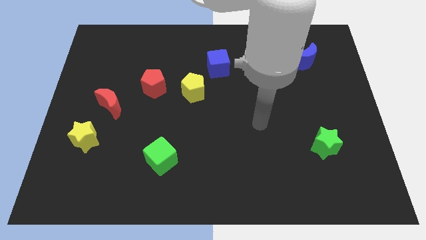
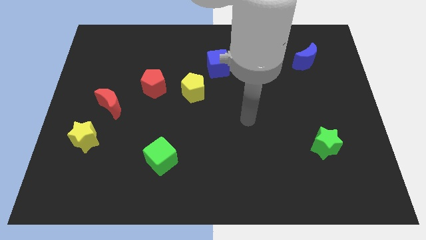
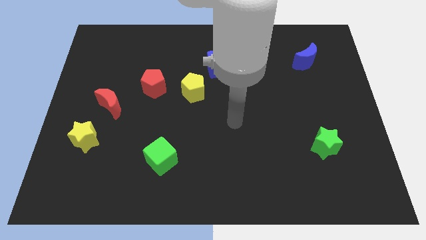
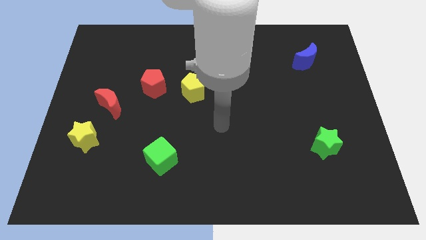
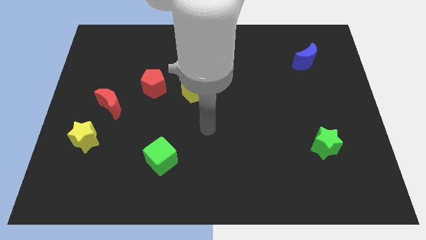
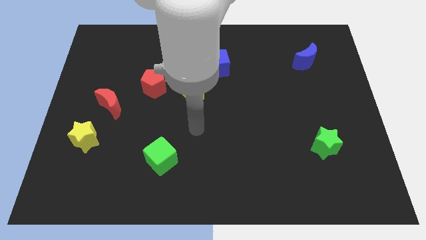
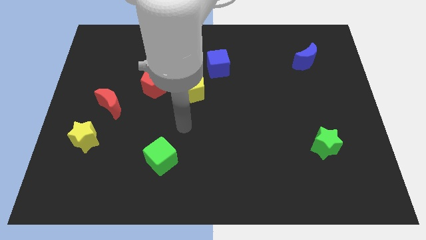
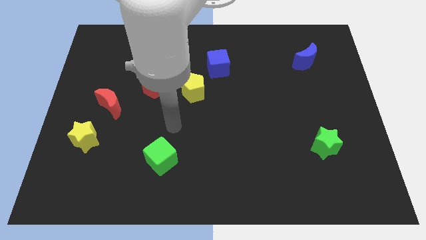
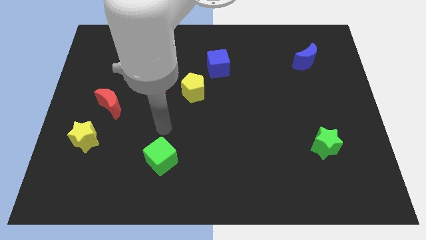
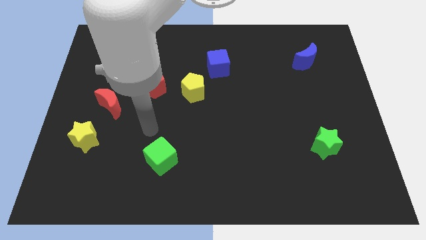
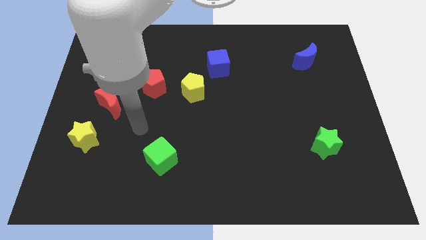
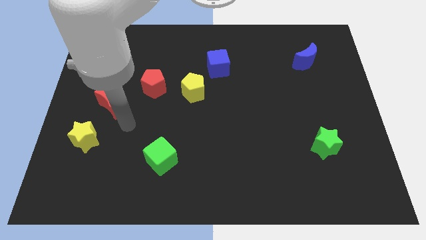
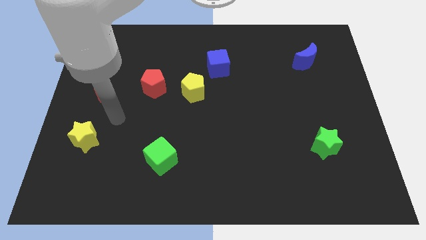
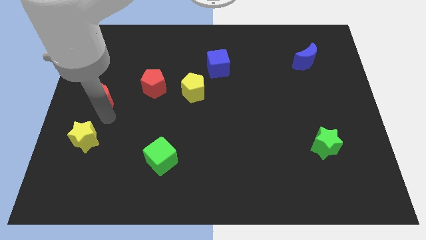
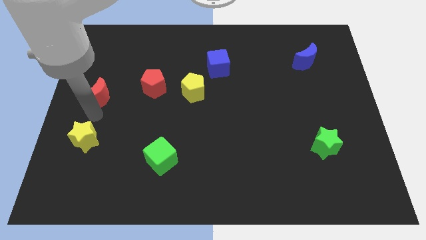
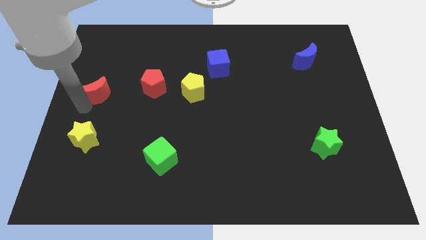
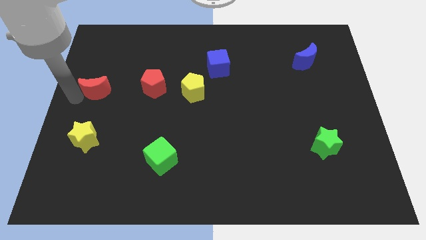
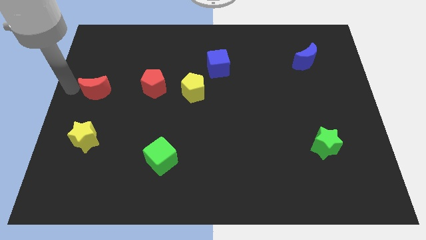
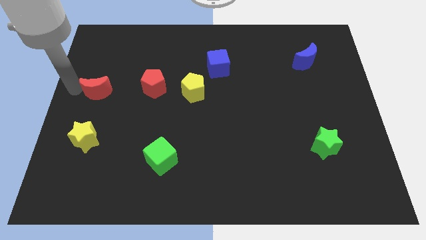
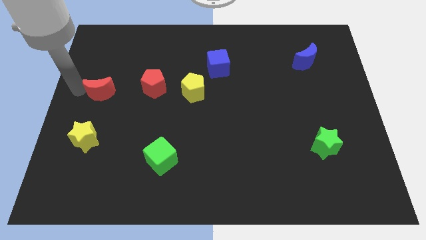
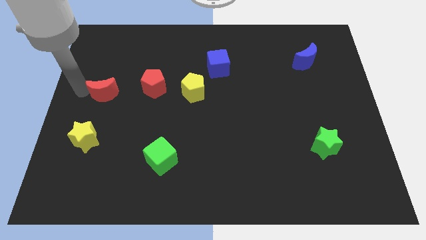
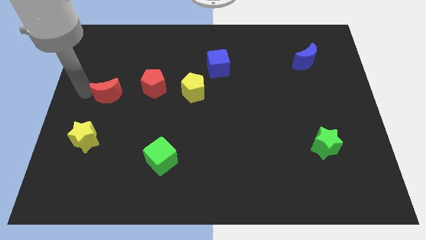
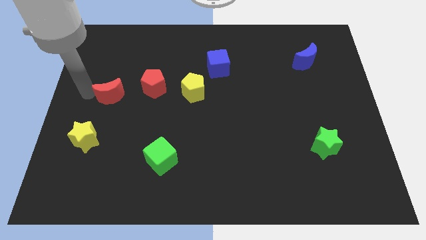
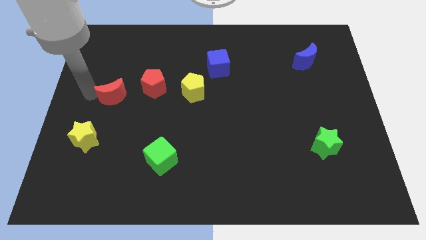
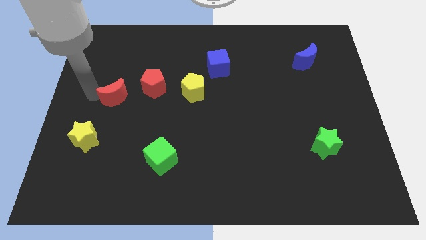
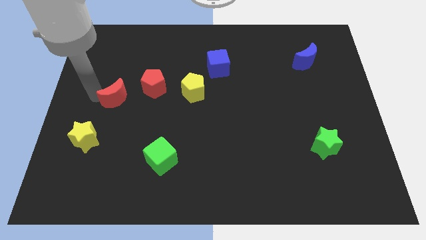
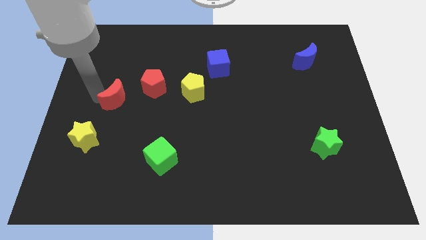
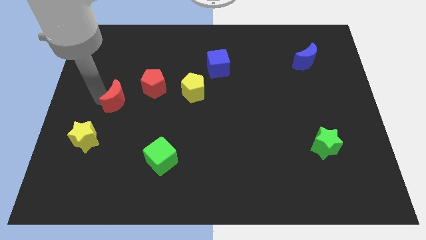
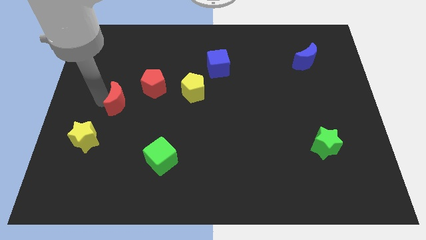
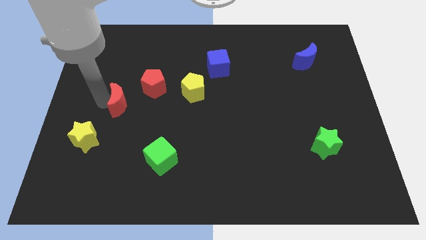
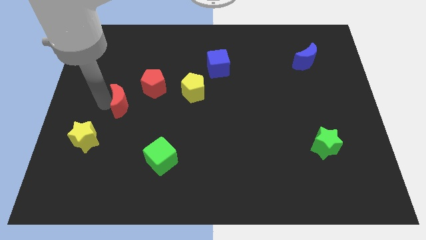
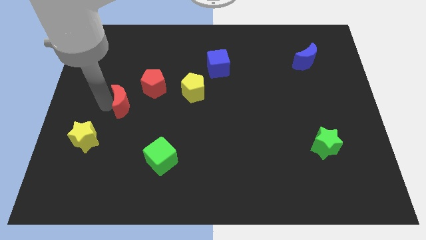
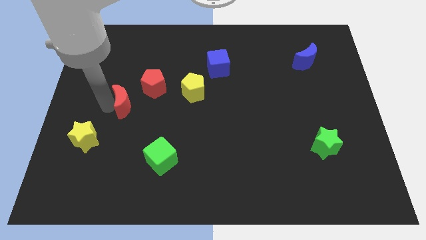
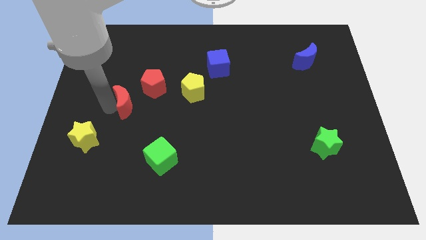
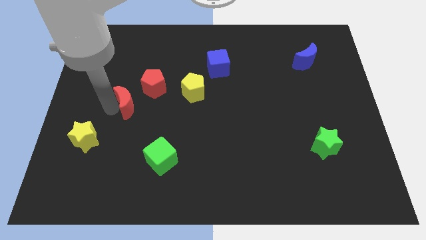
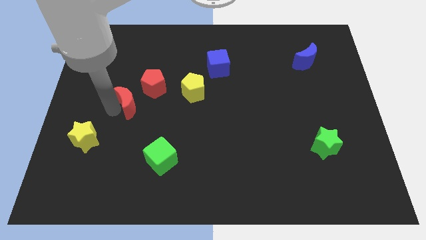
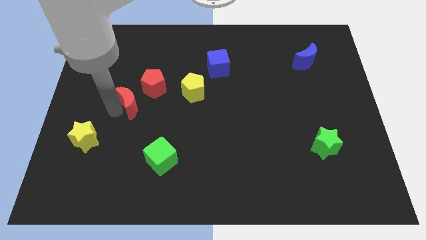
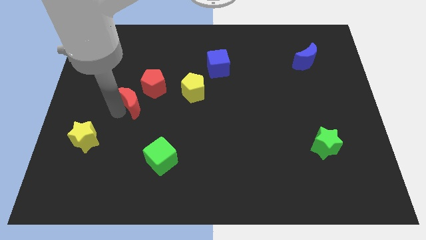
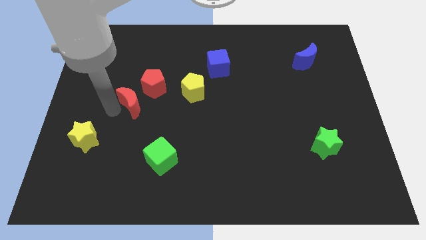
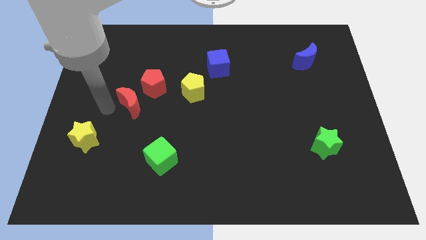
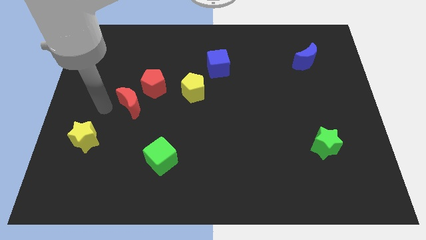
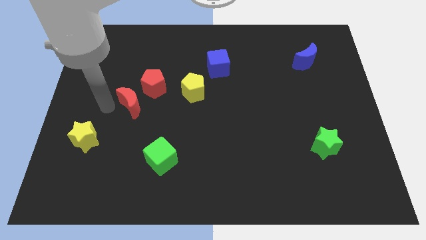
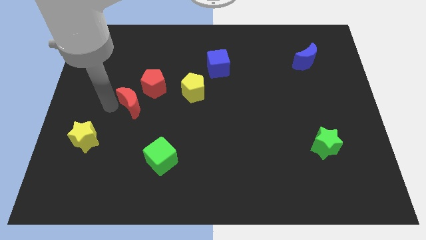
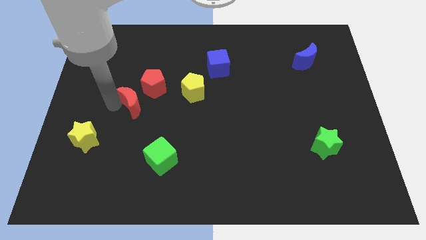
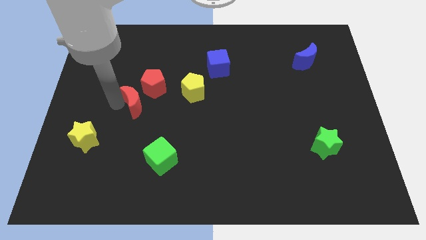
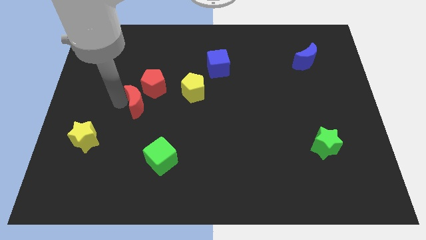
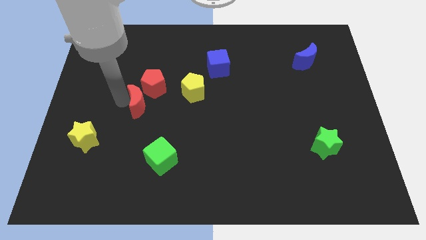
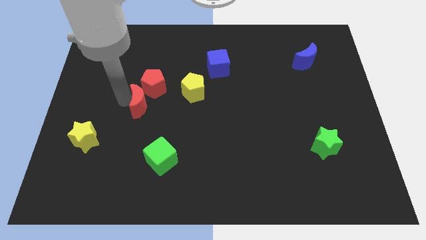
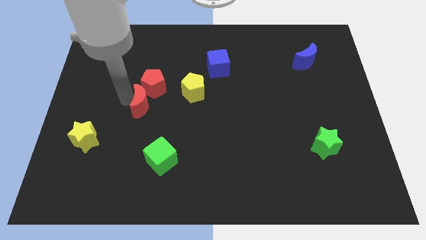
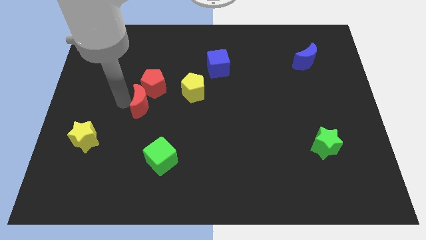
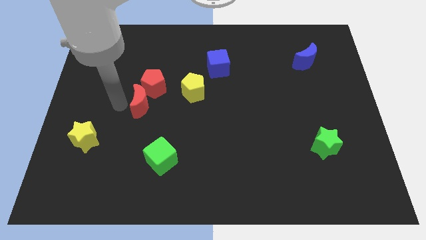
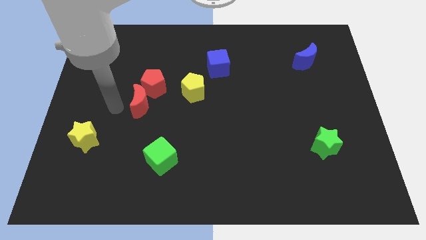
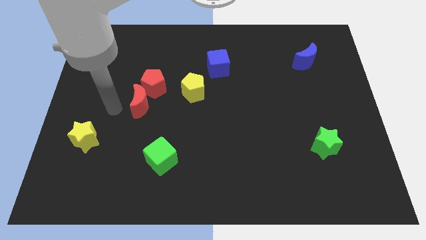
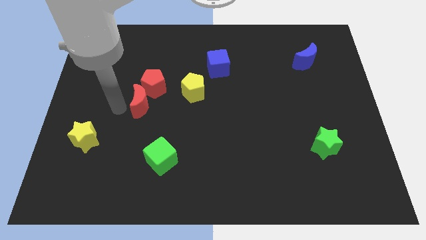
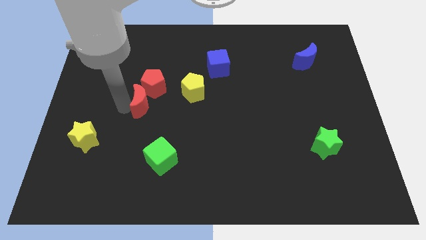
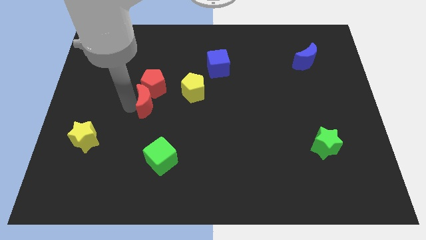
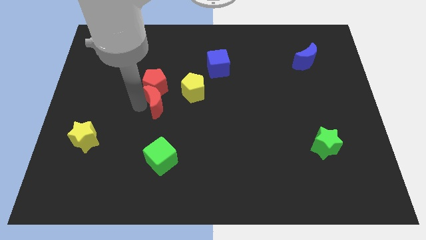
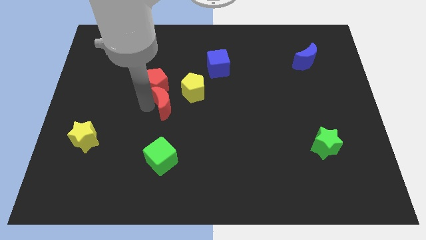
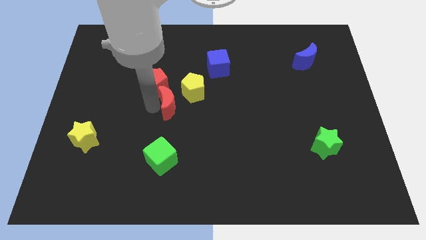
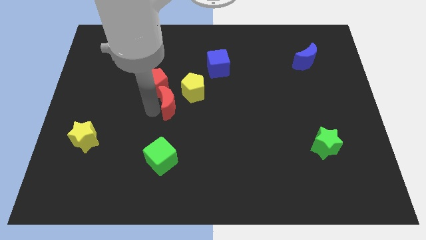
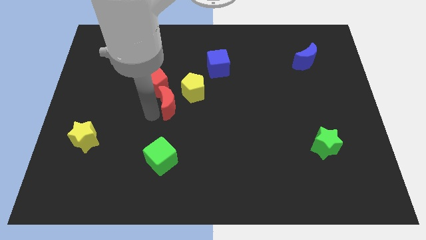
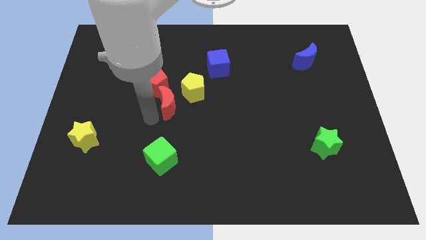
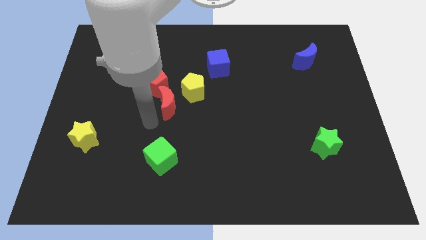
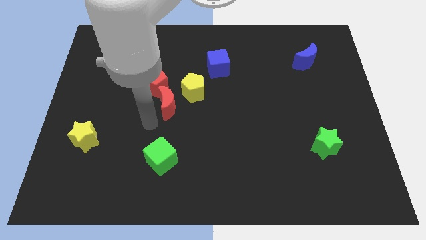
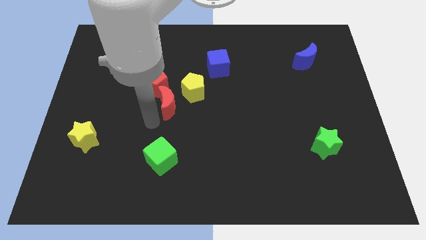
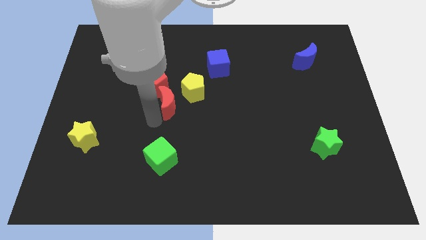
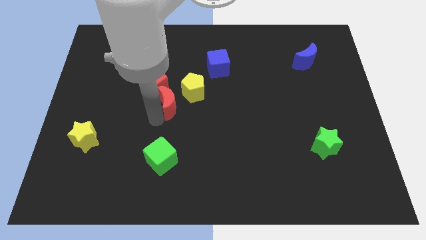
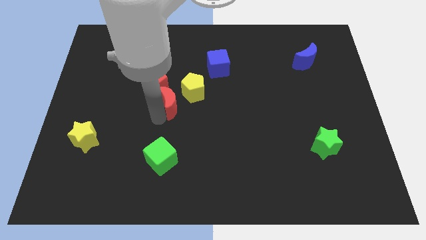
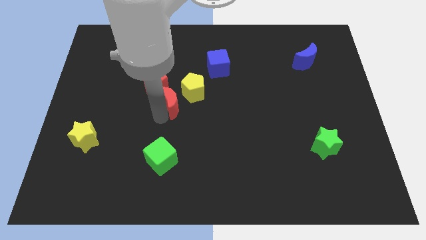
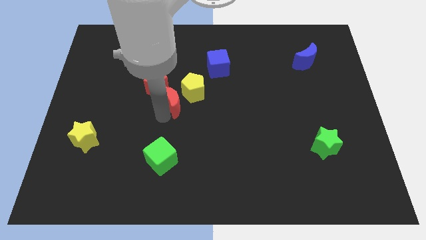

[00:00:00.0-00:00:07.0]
put the red moon towards the yellow pentagon

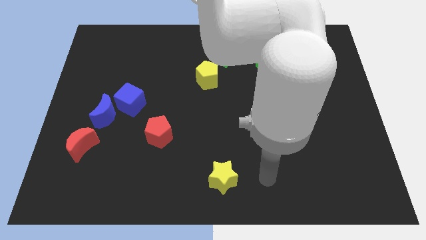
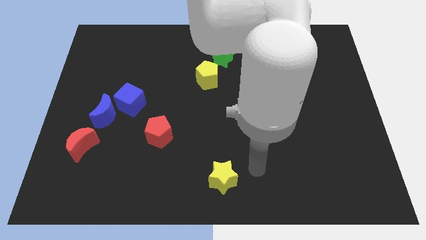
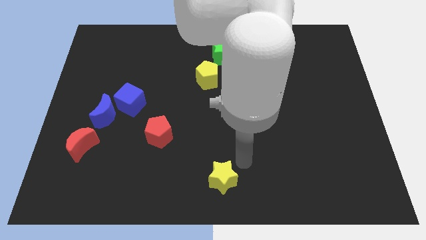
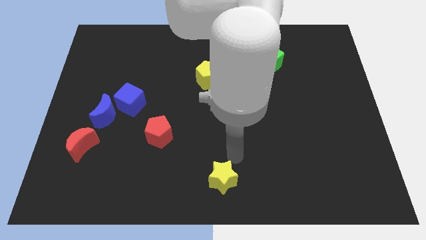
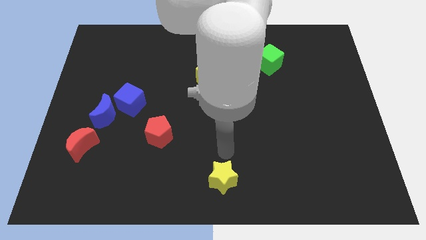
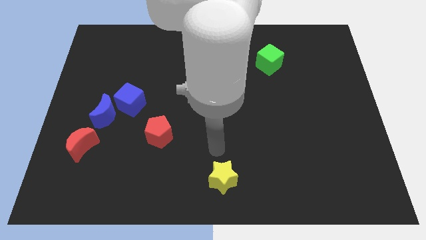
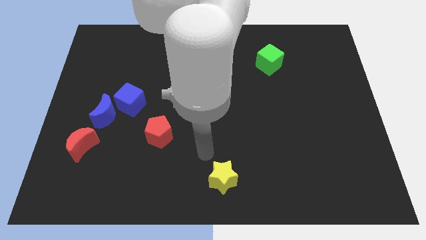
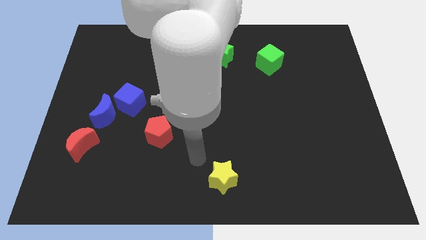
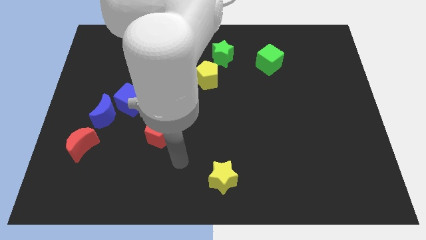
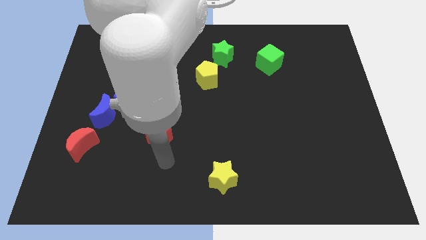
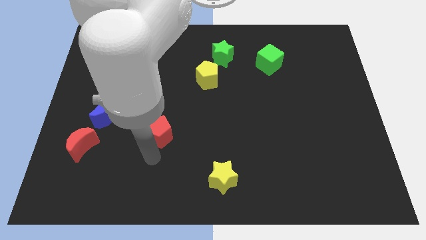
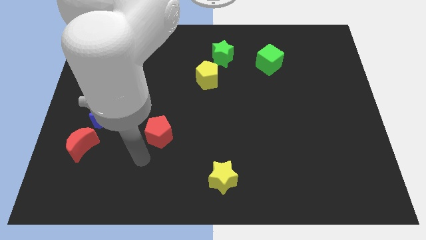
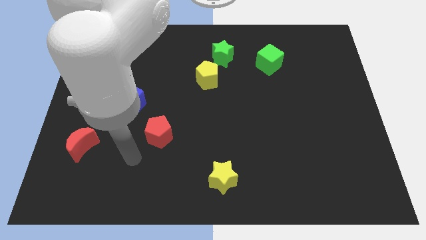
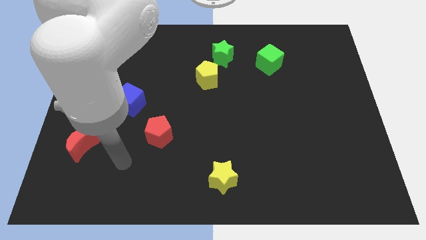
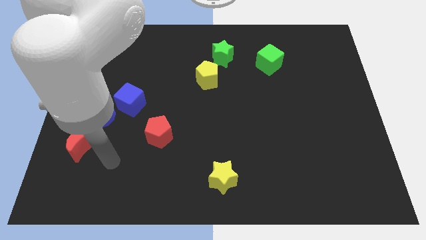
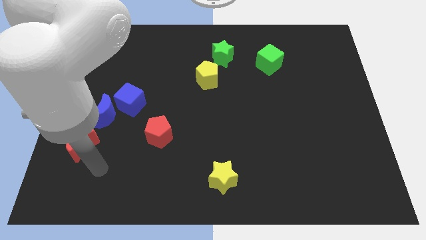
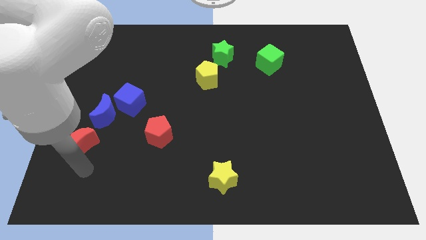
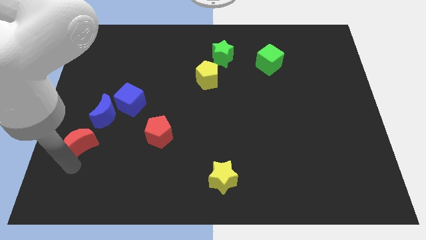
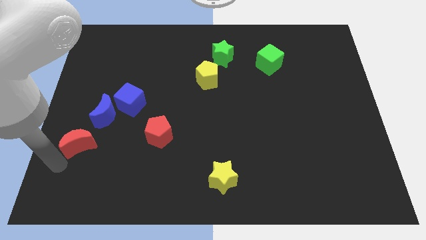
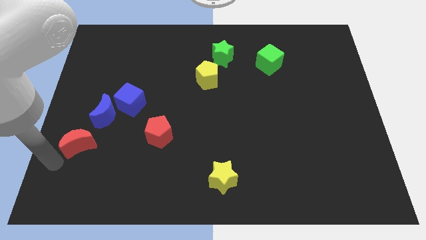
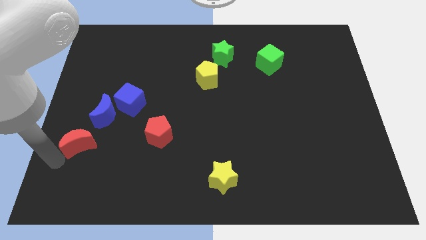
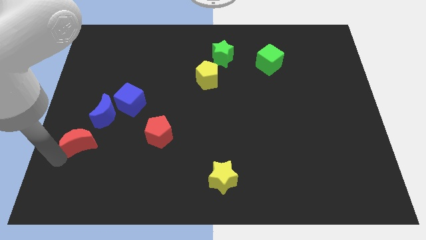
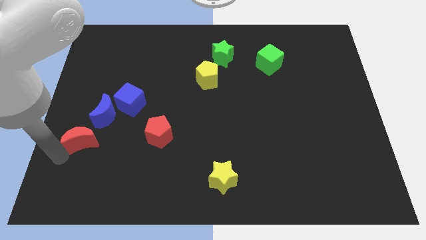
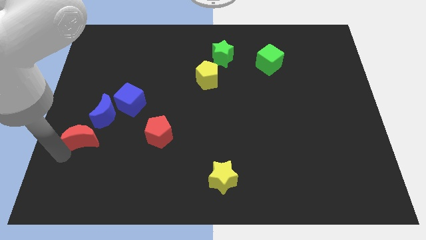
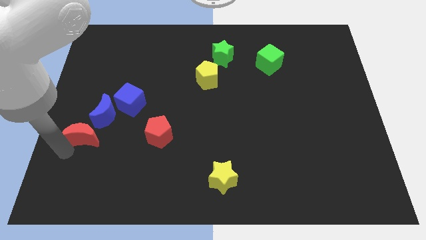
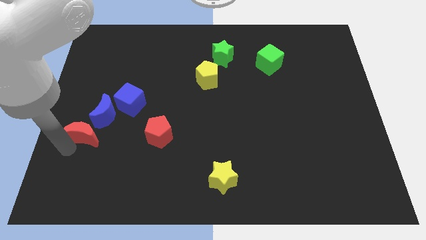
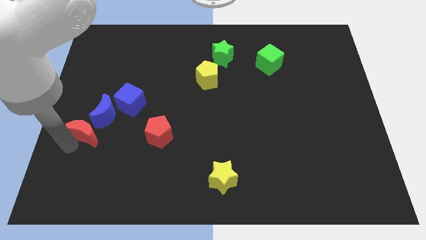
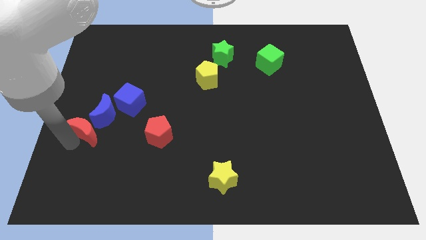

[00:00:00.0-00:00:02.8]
put the red moon towards the blue moon
